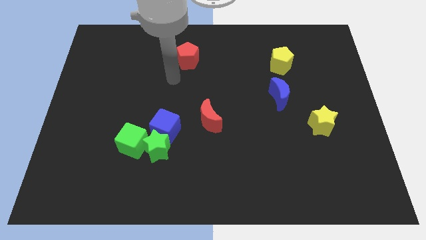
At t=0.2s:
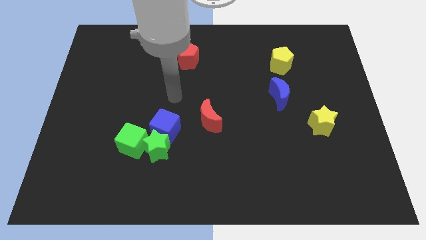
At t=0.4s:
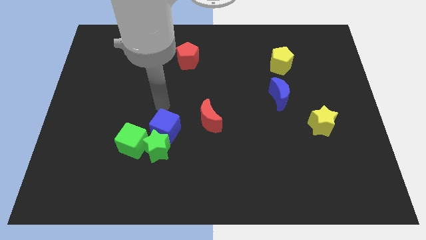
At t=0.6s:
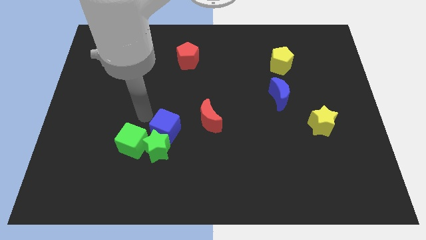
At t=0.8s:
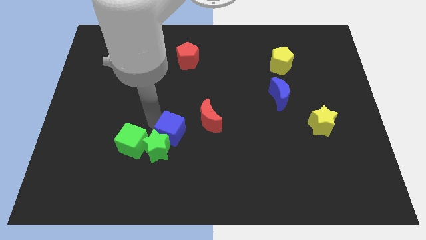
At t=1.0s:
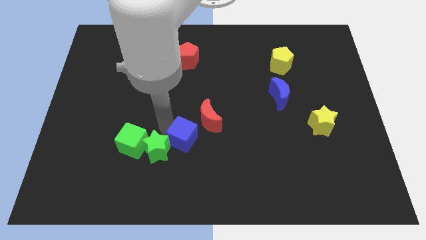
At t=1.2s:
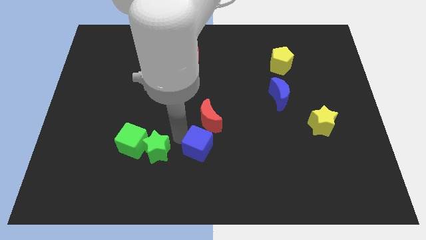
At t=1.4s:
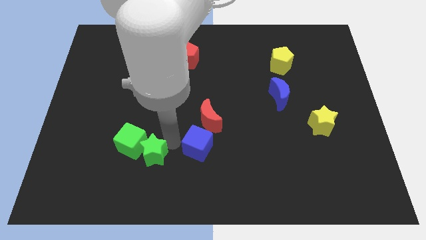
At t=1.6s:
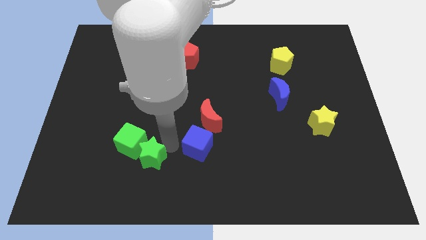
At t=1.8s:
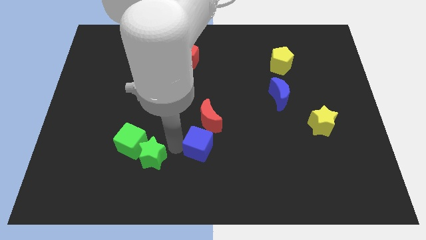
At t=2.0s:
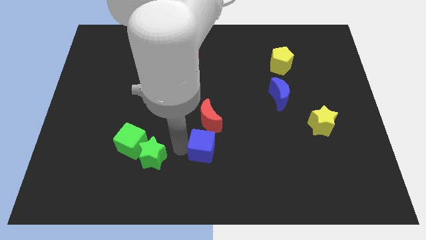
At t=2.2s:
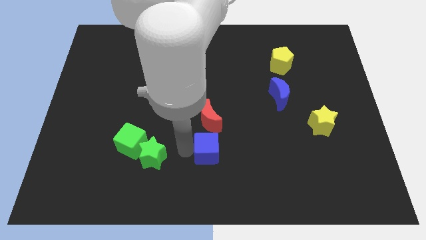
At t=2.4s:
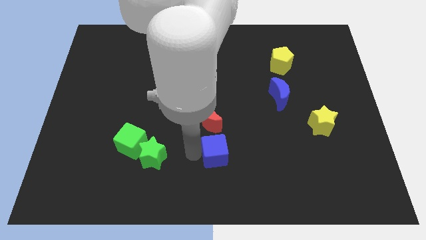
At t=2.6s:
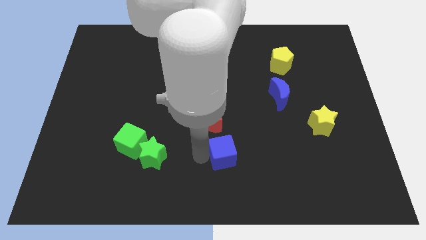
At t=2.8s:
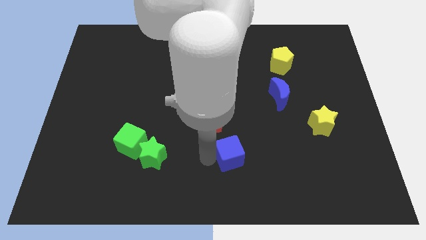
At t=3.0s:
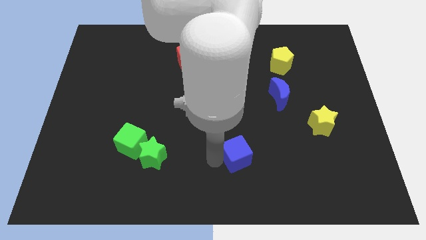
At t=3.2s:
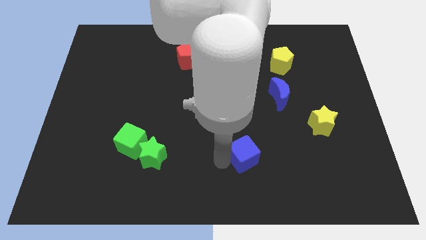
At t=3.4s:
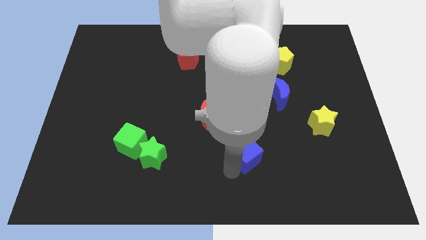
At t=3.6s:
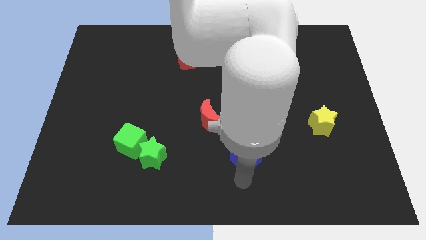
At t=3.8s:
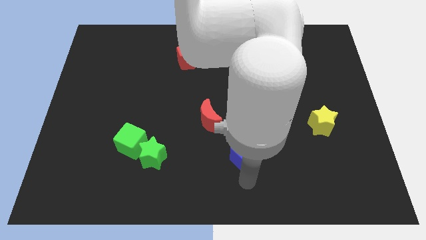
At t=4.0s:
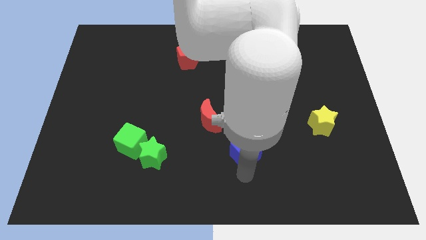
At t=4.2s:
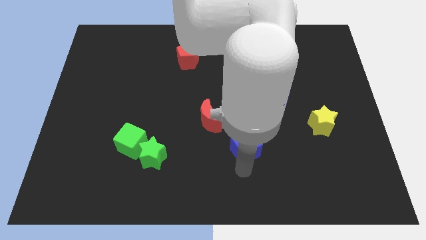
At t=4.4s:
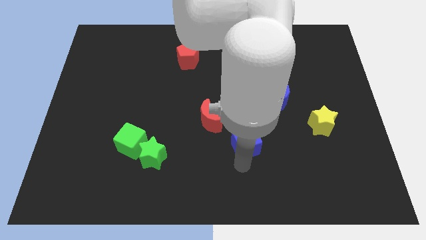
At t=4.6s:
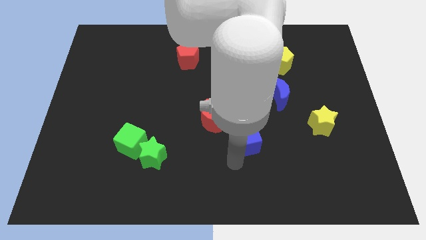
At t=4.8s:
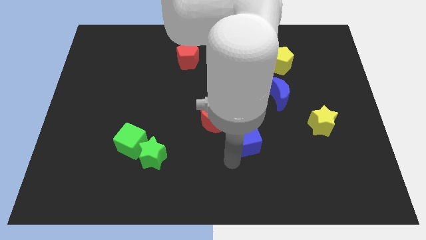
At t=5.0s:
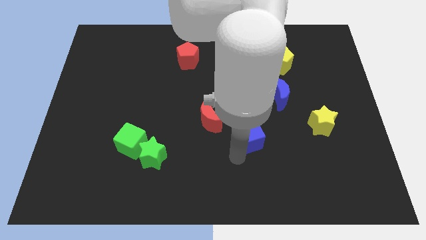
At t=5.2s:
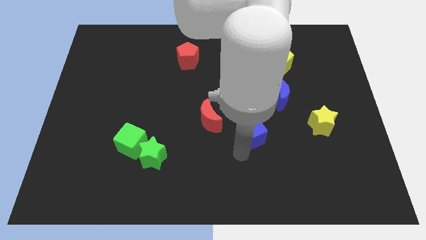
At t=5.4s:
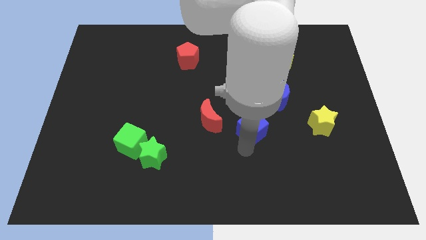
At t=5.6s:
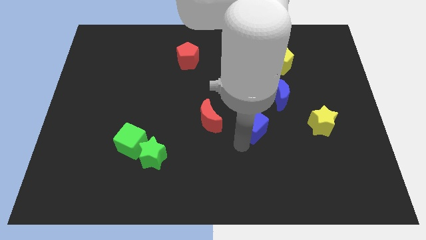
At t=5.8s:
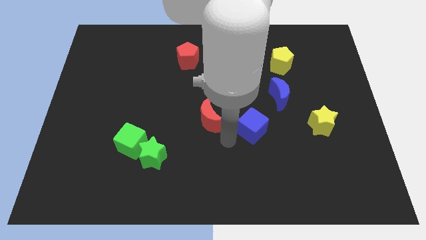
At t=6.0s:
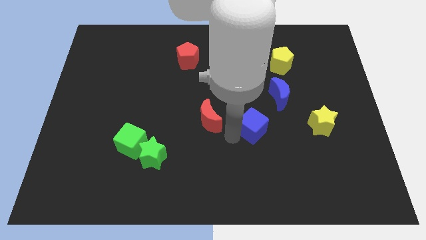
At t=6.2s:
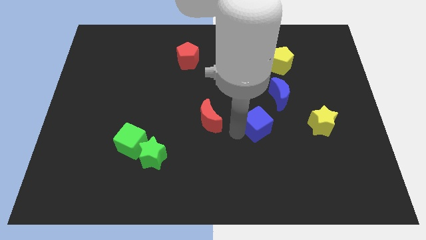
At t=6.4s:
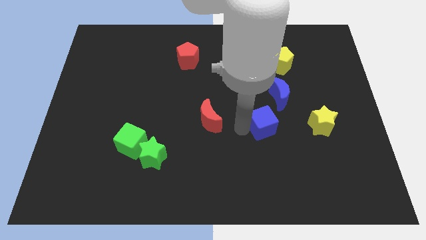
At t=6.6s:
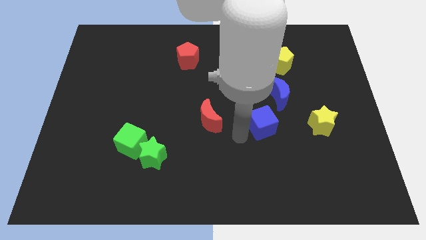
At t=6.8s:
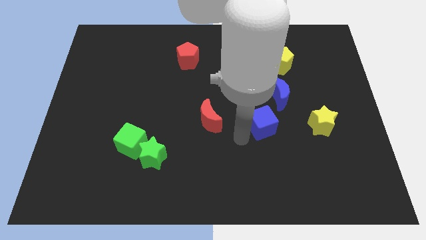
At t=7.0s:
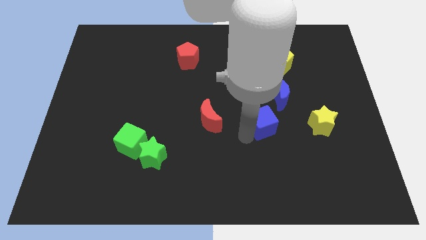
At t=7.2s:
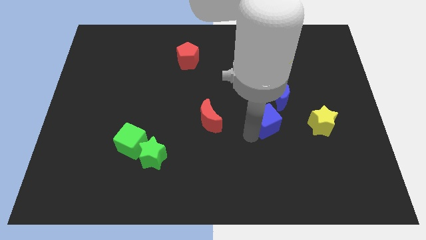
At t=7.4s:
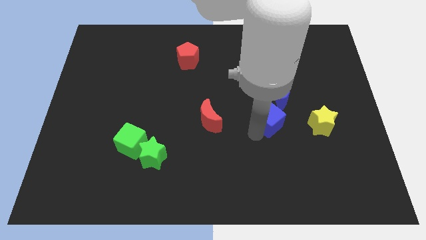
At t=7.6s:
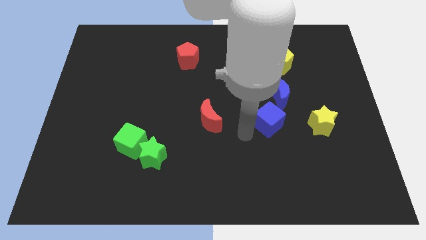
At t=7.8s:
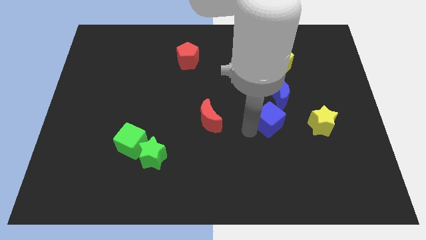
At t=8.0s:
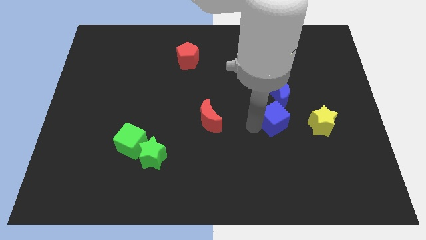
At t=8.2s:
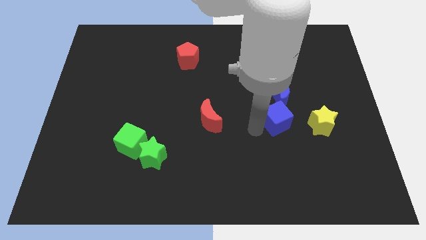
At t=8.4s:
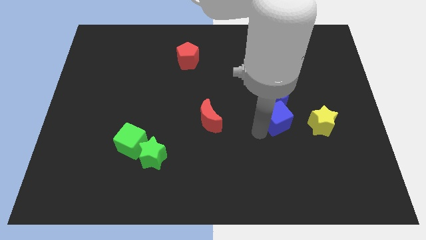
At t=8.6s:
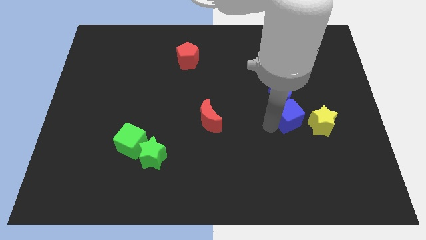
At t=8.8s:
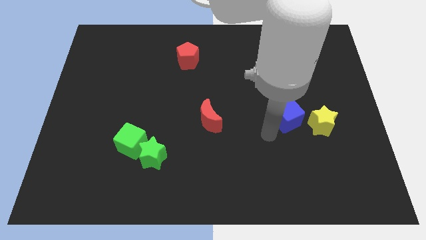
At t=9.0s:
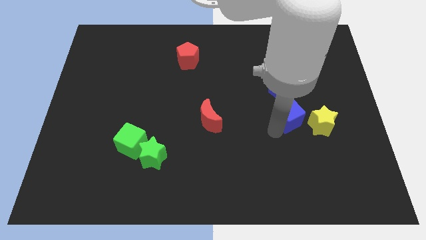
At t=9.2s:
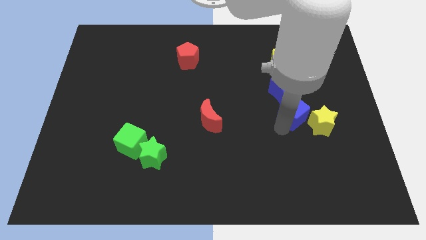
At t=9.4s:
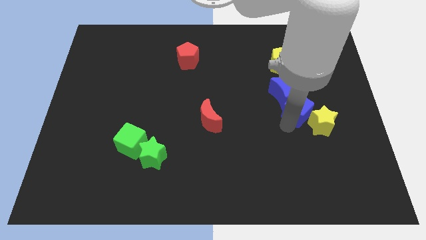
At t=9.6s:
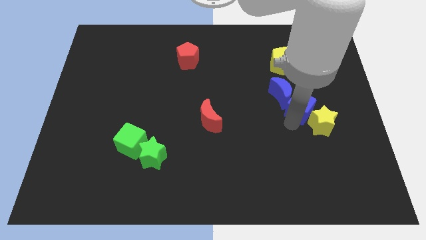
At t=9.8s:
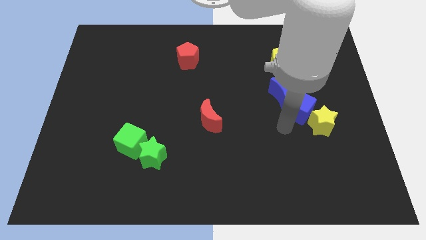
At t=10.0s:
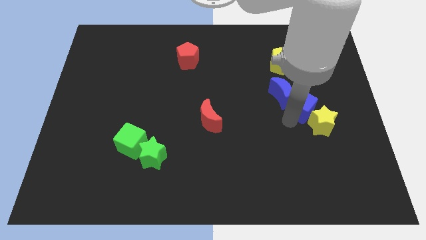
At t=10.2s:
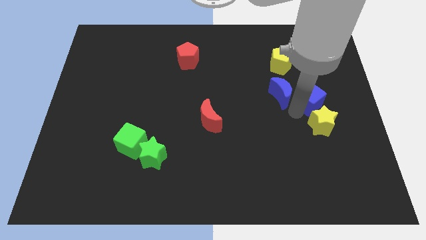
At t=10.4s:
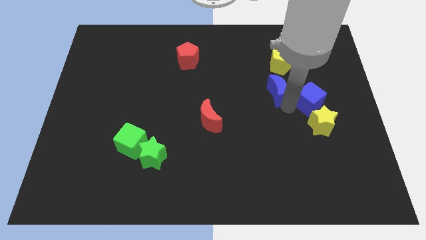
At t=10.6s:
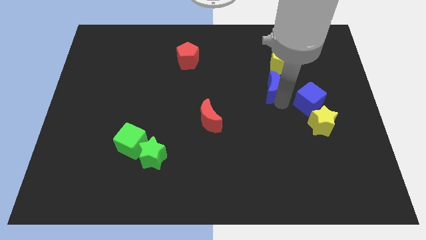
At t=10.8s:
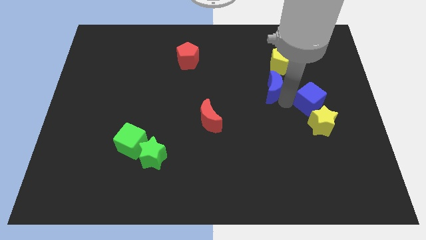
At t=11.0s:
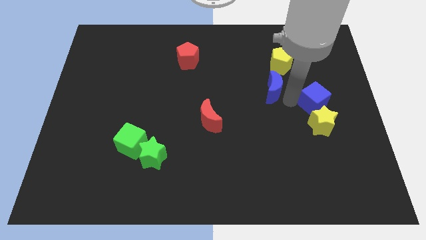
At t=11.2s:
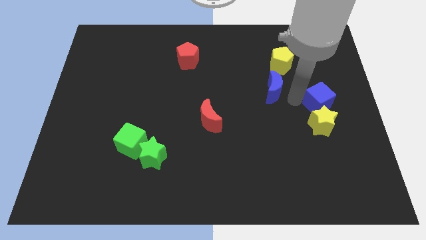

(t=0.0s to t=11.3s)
move the blue cube to the right side of the board
